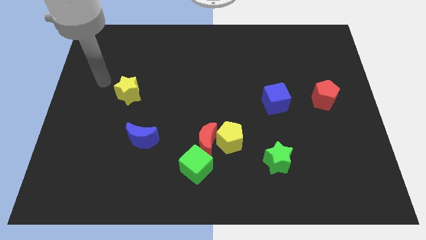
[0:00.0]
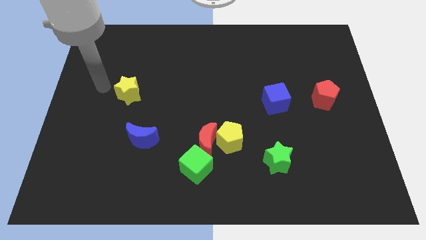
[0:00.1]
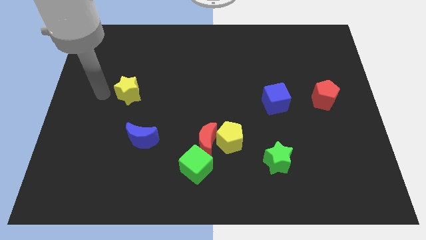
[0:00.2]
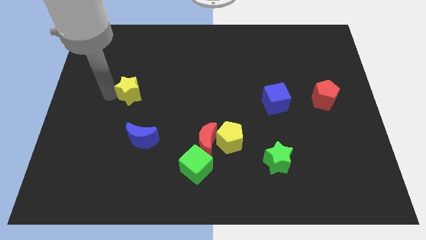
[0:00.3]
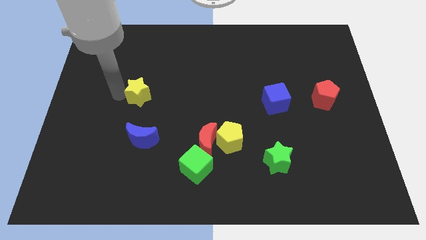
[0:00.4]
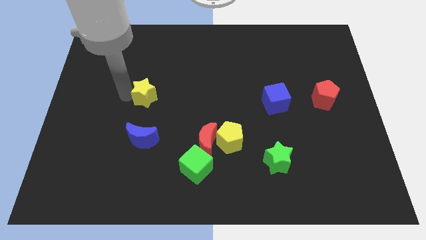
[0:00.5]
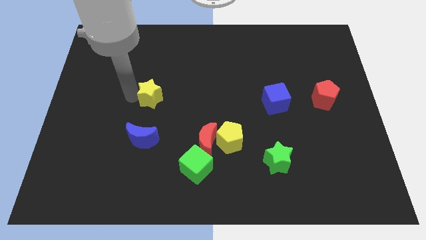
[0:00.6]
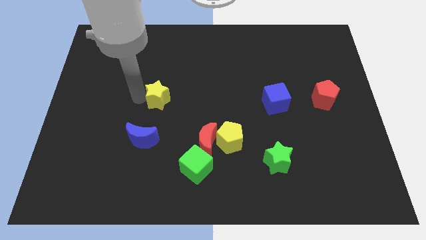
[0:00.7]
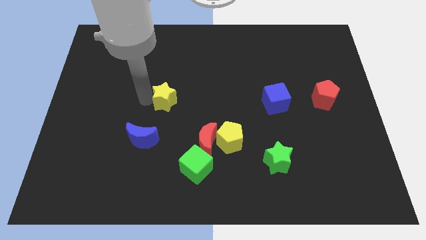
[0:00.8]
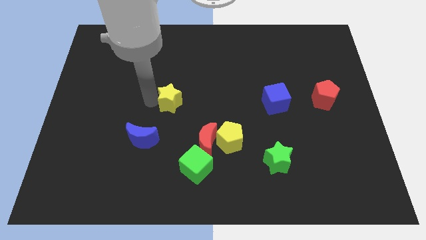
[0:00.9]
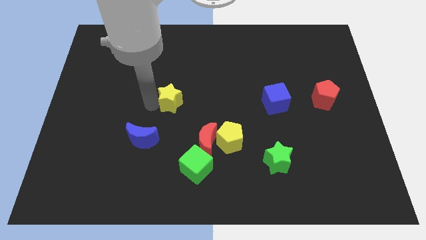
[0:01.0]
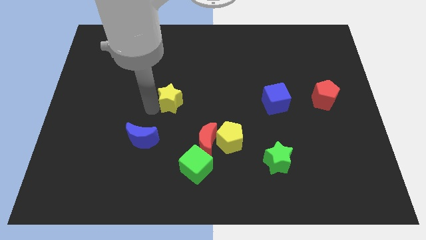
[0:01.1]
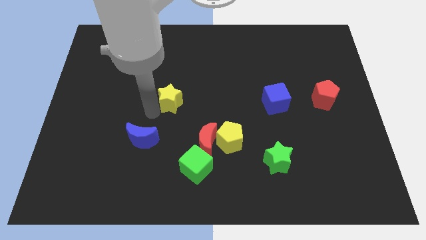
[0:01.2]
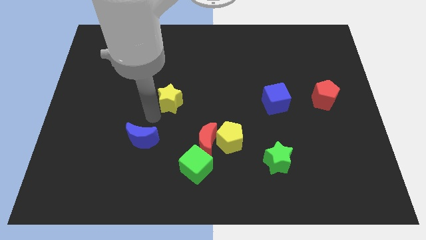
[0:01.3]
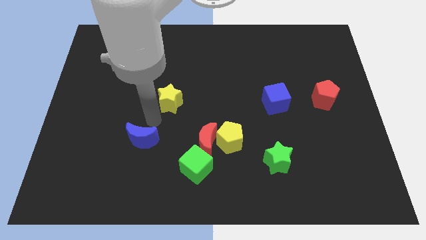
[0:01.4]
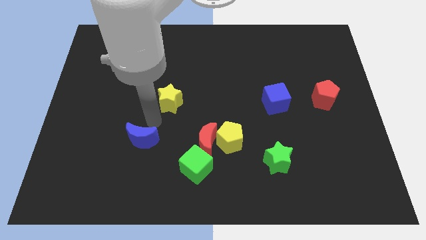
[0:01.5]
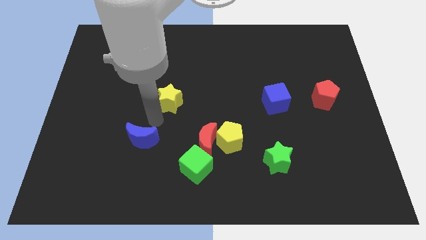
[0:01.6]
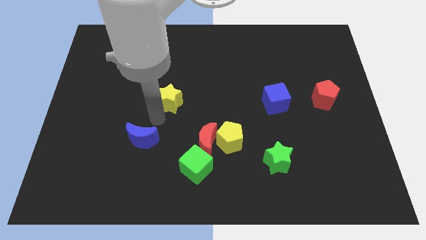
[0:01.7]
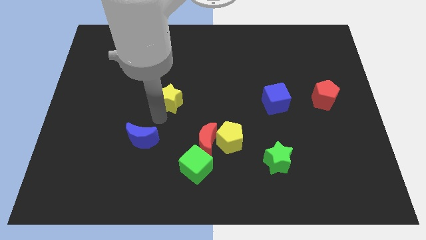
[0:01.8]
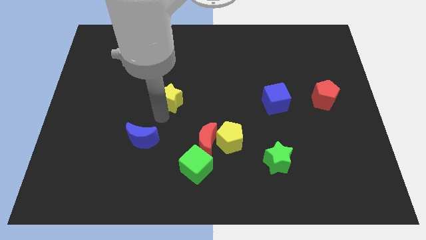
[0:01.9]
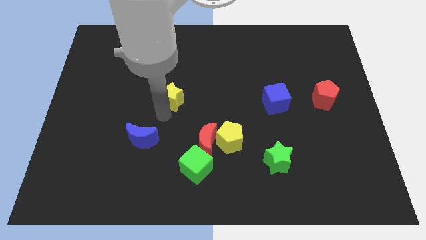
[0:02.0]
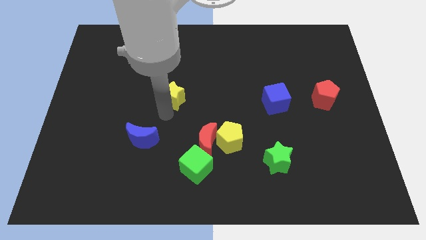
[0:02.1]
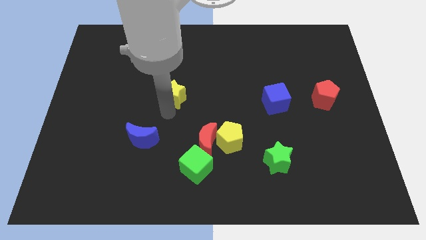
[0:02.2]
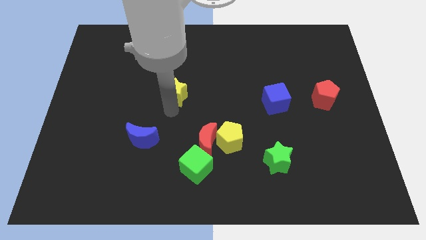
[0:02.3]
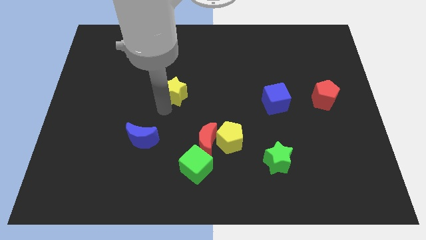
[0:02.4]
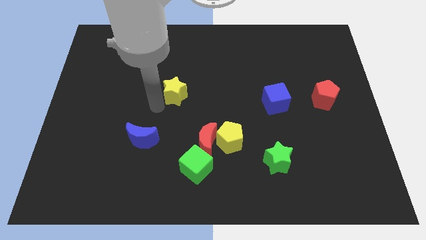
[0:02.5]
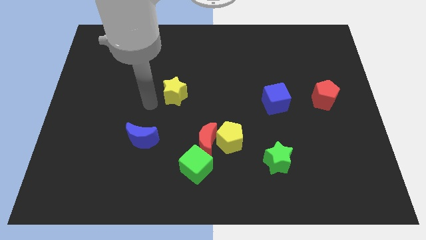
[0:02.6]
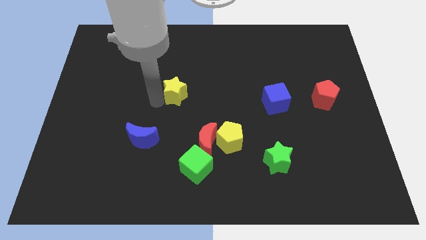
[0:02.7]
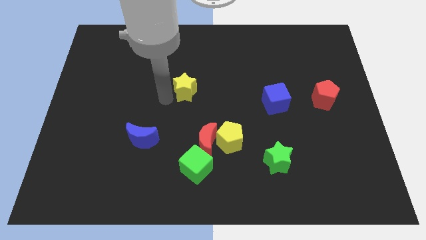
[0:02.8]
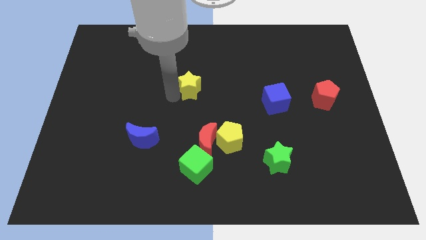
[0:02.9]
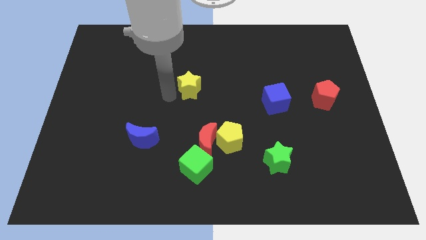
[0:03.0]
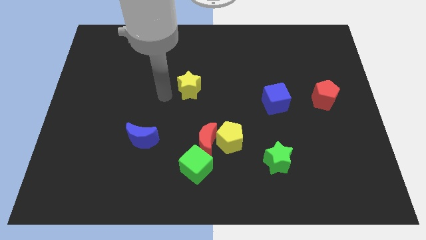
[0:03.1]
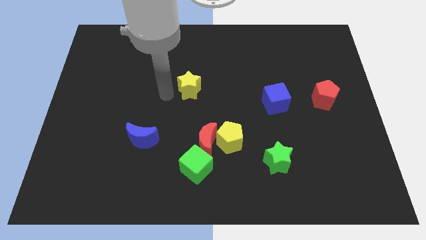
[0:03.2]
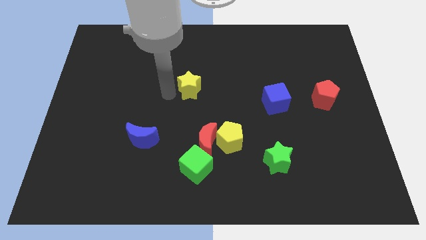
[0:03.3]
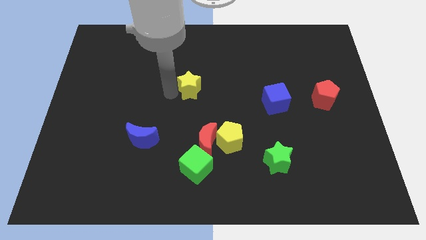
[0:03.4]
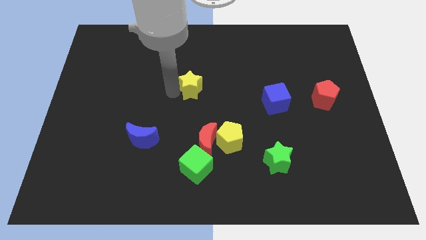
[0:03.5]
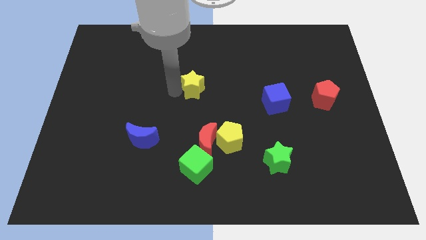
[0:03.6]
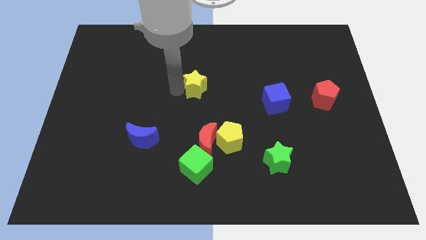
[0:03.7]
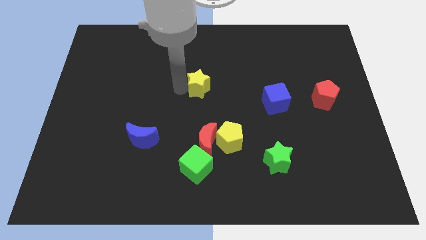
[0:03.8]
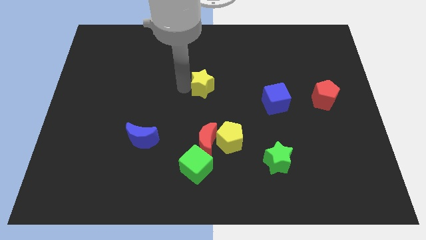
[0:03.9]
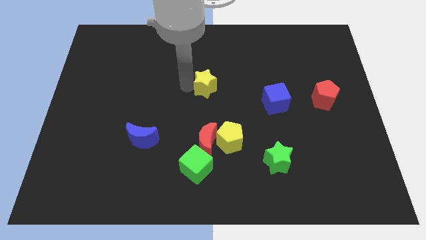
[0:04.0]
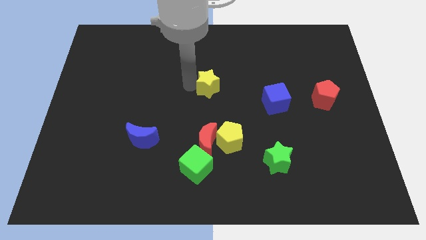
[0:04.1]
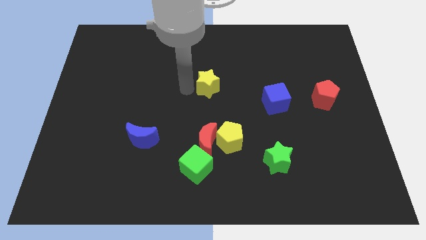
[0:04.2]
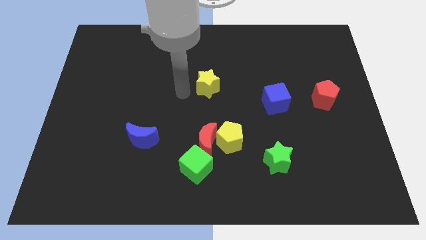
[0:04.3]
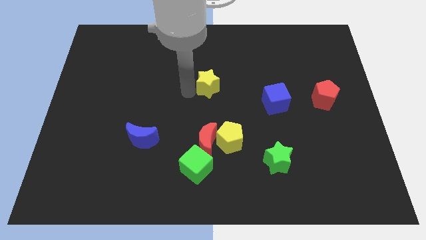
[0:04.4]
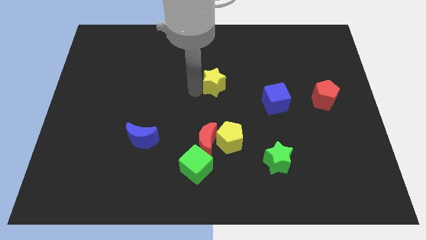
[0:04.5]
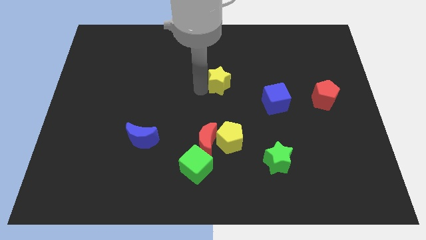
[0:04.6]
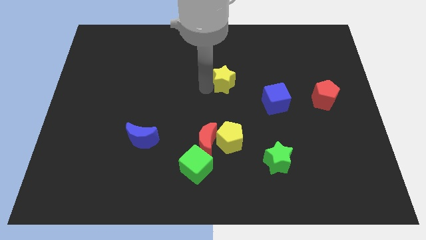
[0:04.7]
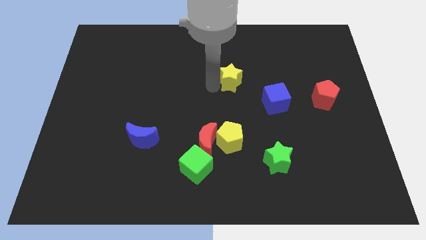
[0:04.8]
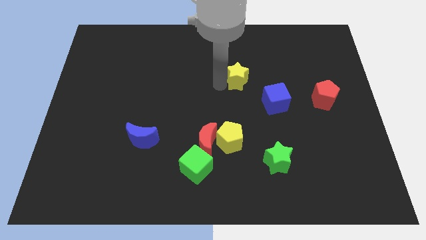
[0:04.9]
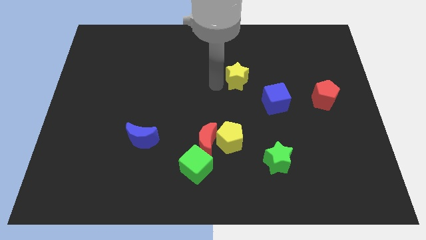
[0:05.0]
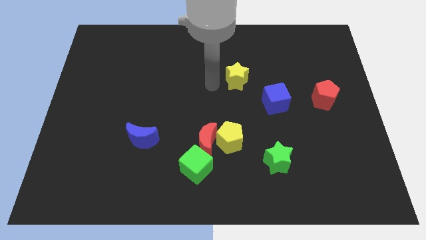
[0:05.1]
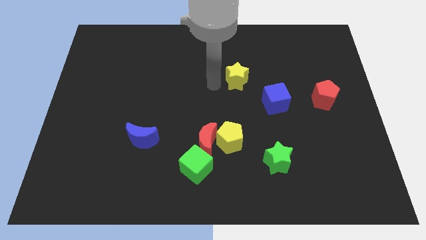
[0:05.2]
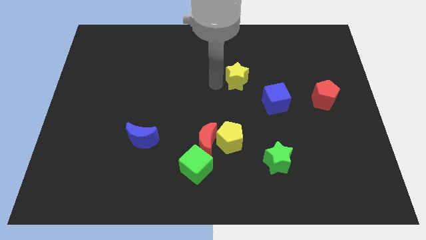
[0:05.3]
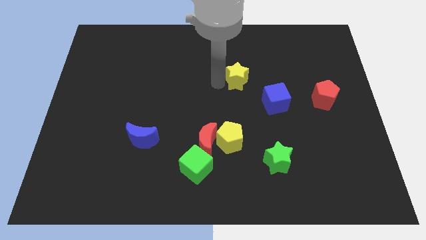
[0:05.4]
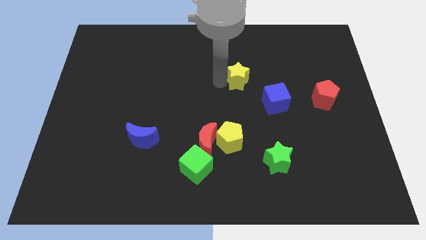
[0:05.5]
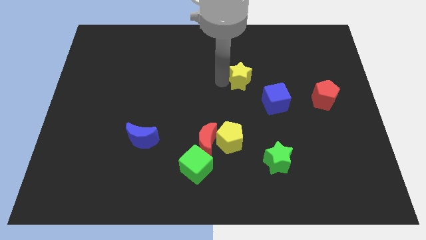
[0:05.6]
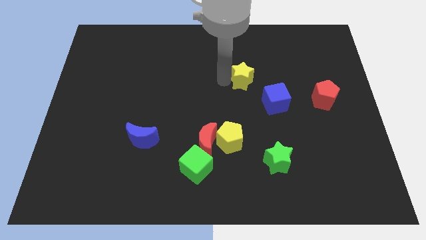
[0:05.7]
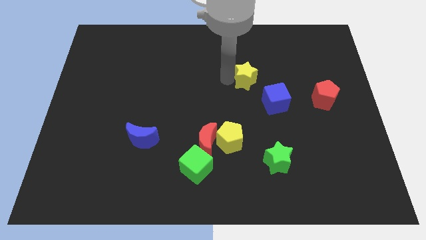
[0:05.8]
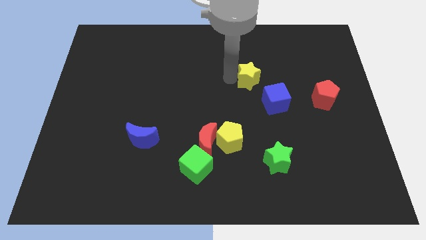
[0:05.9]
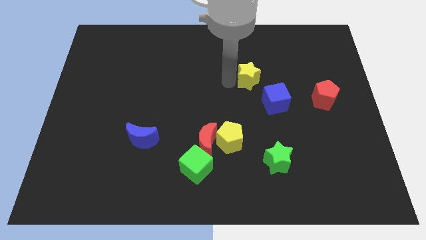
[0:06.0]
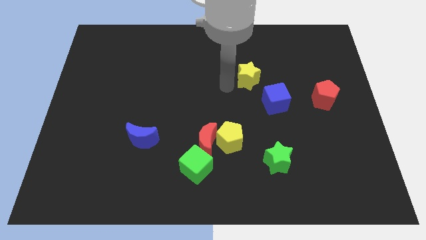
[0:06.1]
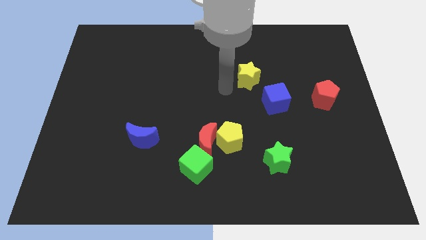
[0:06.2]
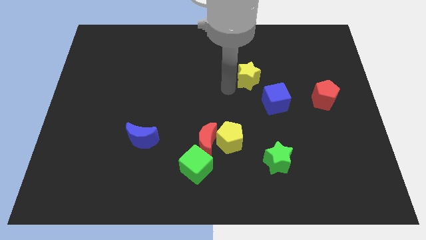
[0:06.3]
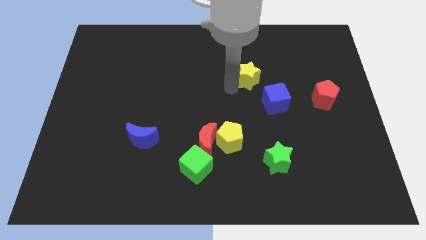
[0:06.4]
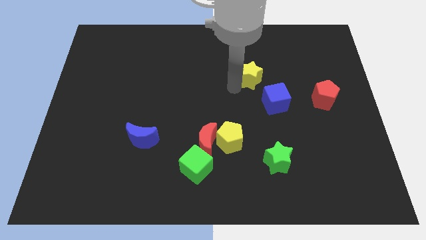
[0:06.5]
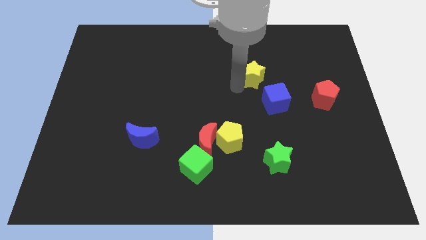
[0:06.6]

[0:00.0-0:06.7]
move the yellow star to the top of the blue cube

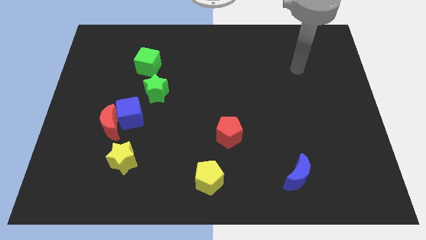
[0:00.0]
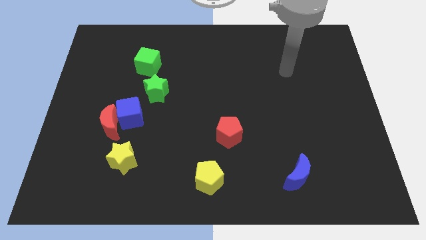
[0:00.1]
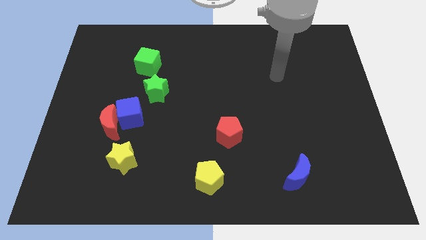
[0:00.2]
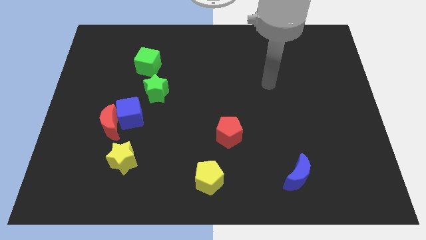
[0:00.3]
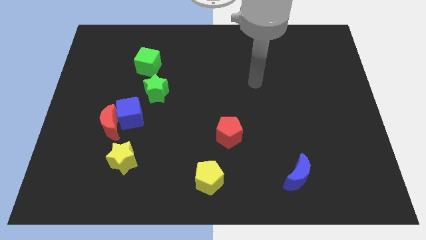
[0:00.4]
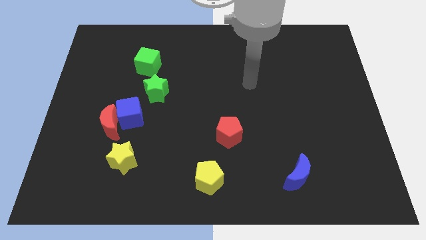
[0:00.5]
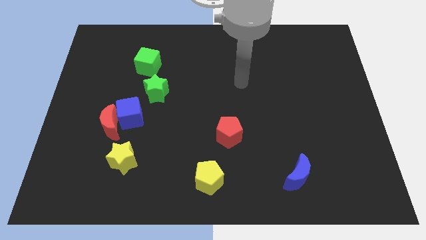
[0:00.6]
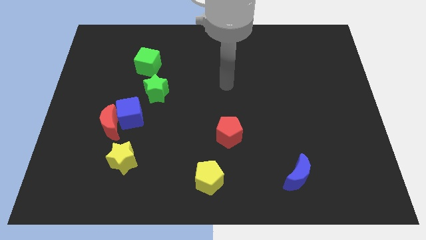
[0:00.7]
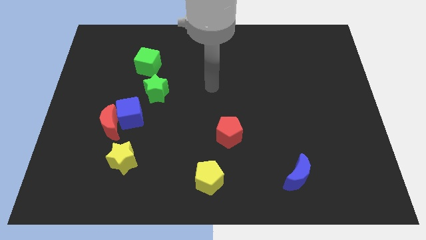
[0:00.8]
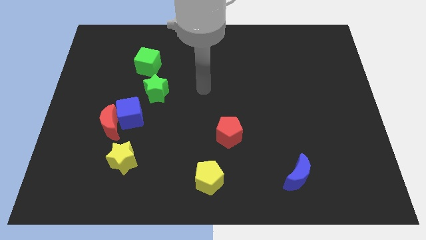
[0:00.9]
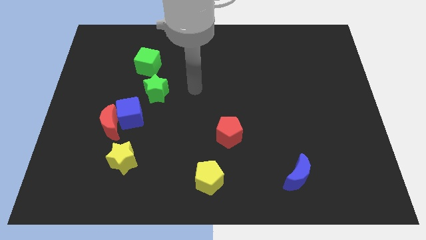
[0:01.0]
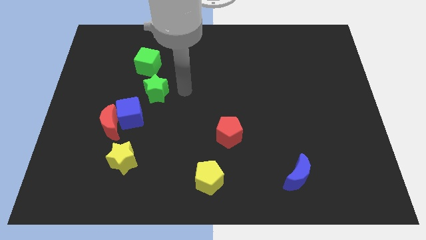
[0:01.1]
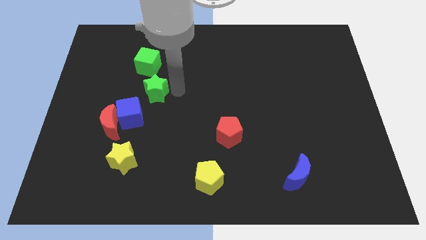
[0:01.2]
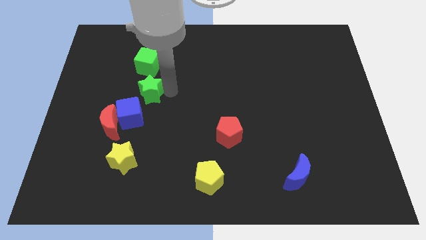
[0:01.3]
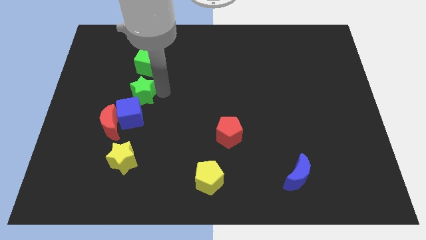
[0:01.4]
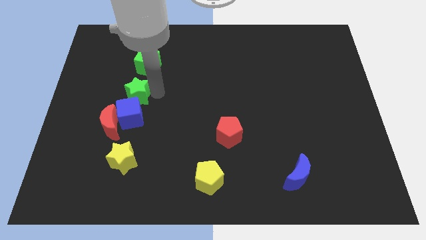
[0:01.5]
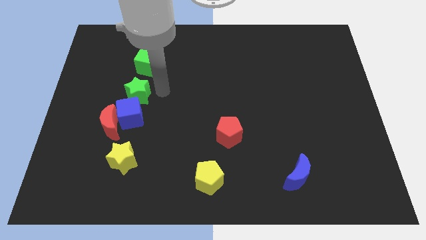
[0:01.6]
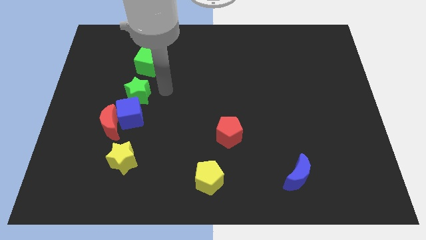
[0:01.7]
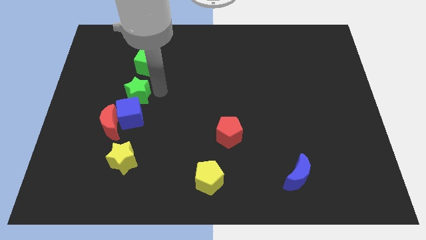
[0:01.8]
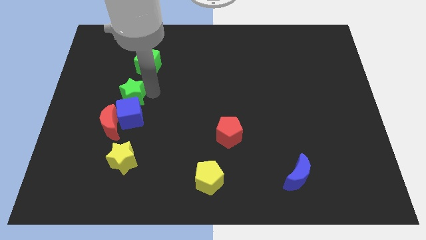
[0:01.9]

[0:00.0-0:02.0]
slide the green star to the top left of the blue cube
